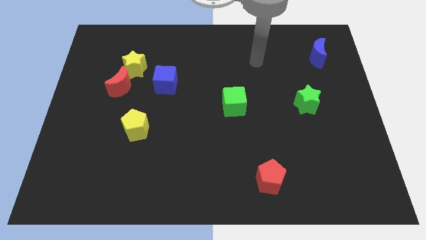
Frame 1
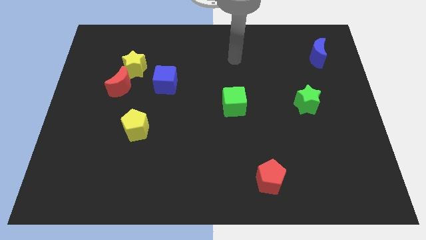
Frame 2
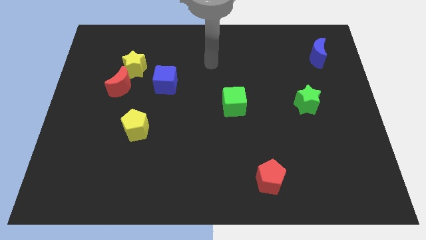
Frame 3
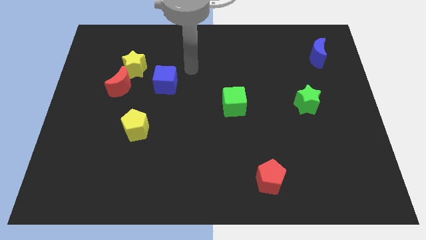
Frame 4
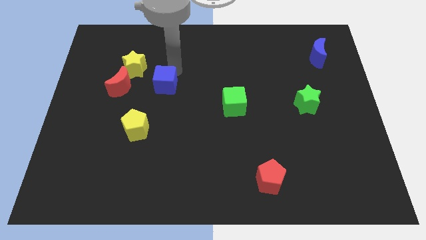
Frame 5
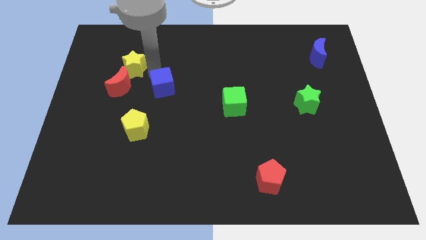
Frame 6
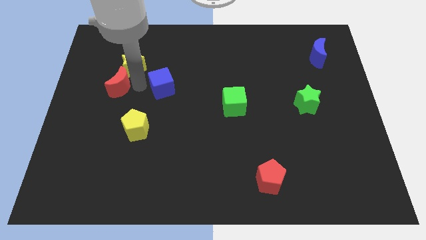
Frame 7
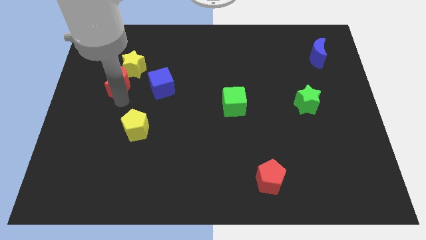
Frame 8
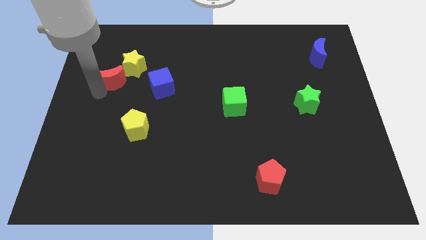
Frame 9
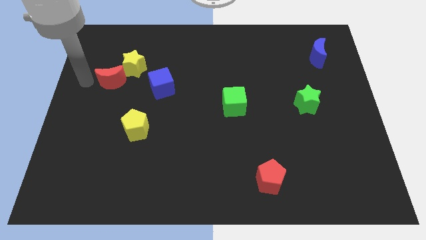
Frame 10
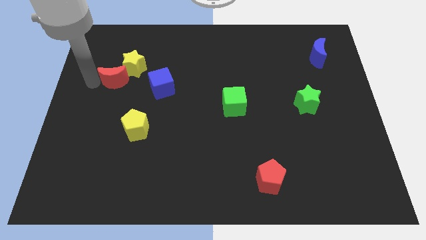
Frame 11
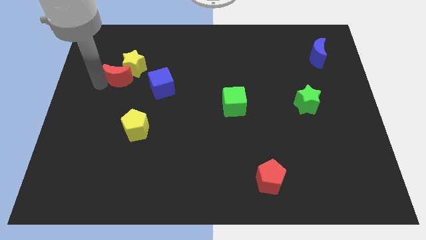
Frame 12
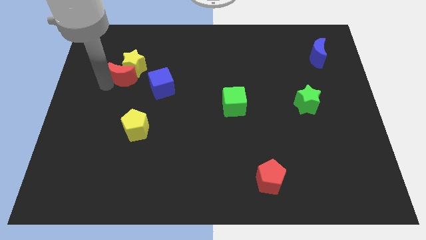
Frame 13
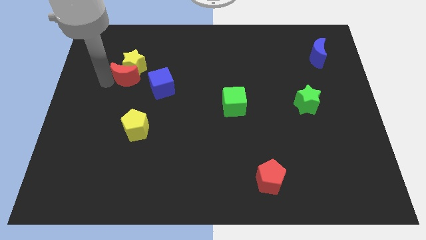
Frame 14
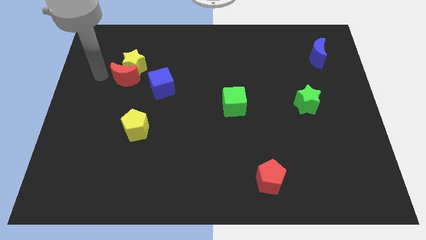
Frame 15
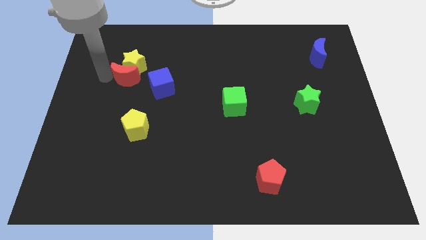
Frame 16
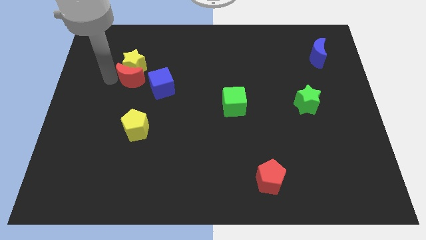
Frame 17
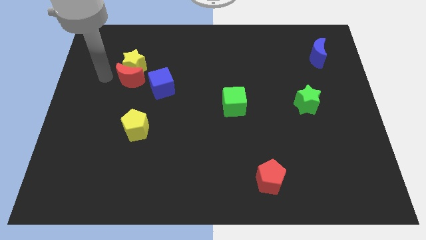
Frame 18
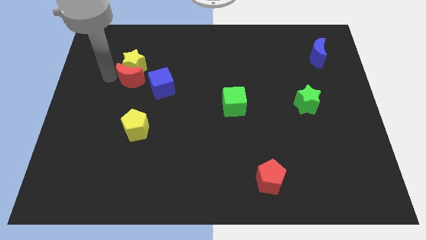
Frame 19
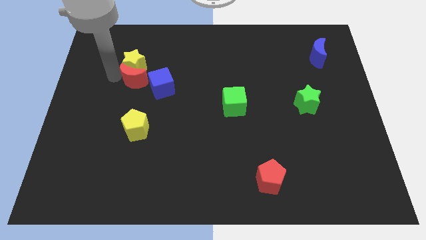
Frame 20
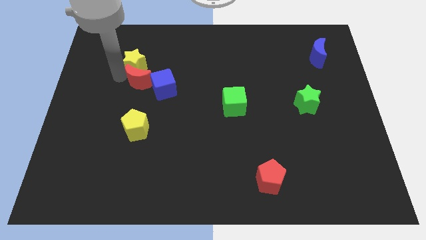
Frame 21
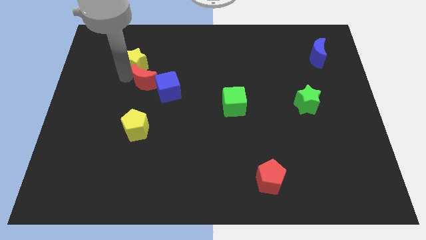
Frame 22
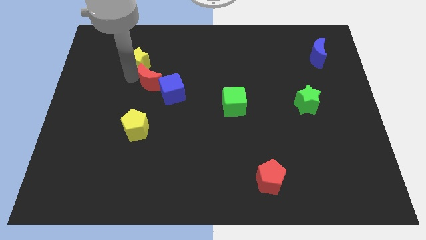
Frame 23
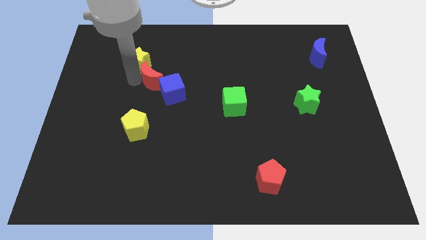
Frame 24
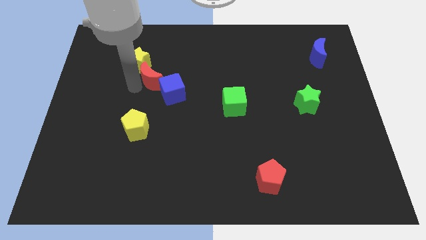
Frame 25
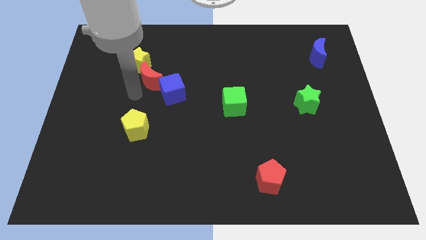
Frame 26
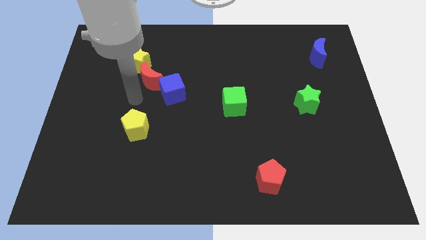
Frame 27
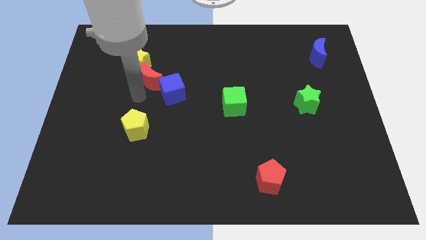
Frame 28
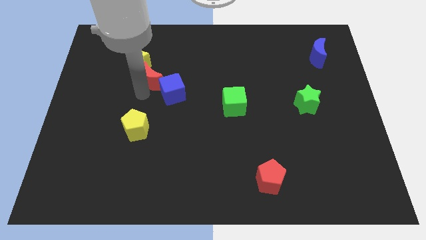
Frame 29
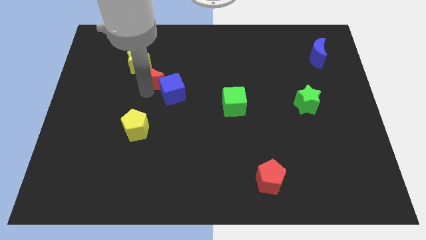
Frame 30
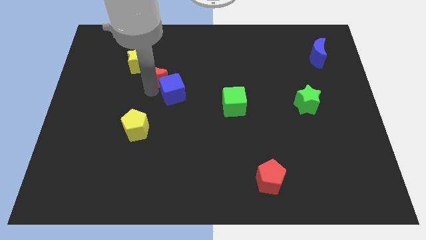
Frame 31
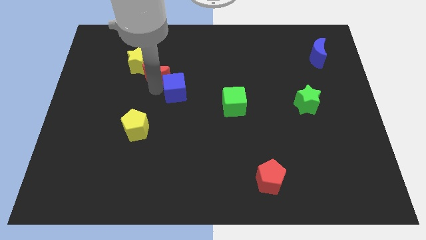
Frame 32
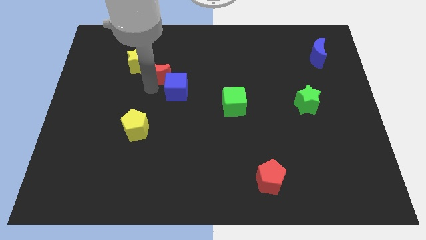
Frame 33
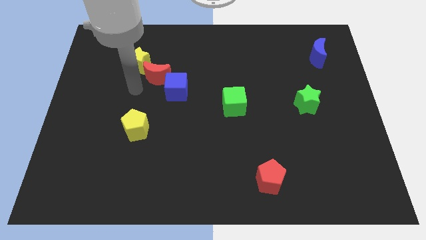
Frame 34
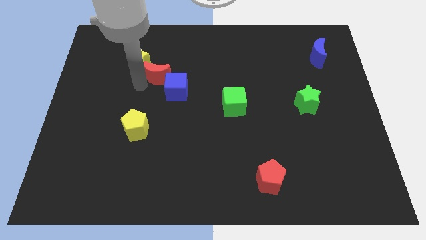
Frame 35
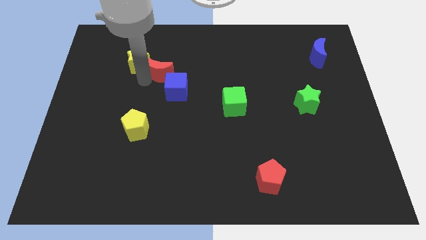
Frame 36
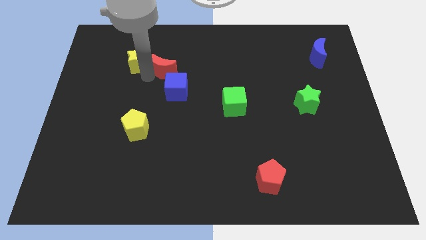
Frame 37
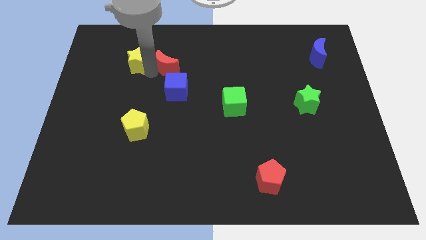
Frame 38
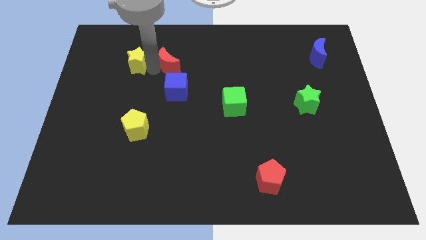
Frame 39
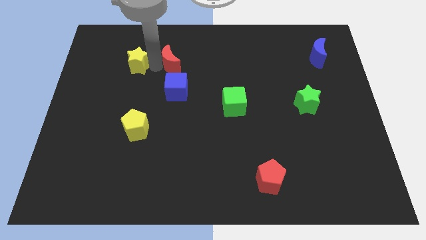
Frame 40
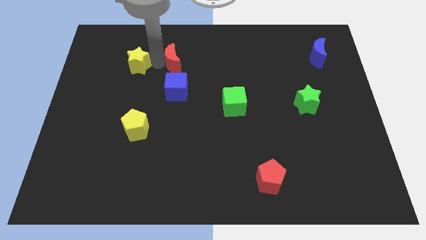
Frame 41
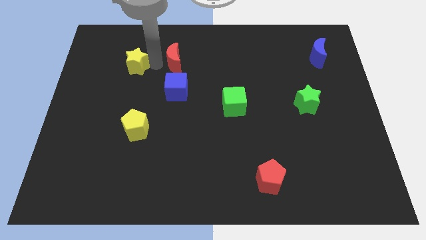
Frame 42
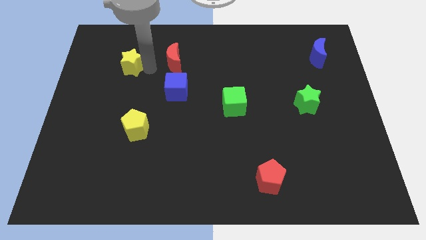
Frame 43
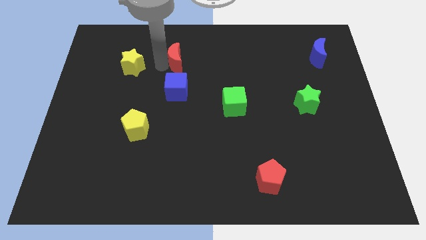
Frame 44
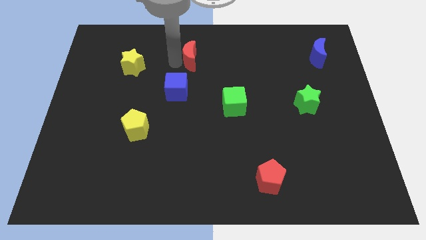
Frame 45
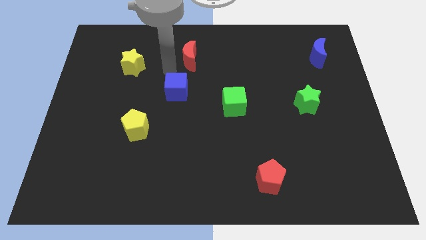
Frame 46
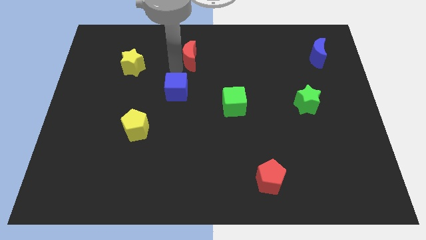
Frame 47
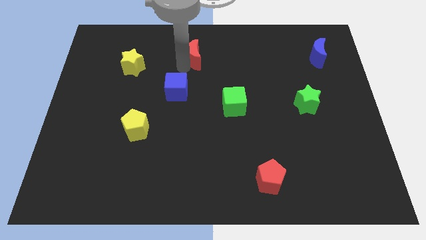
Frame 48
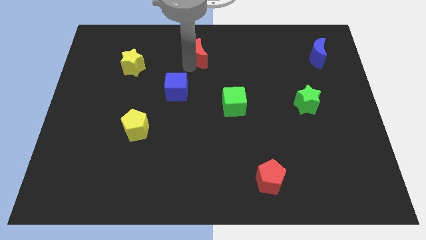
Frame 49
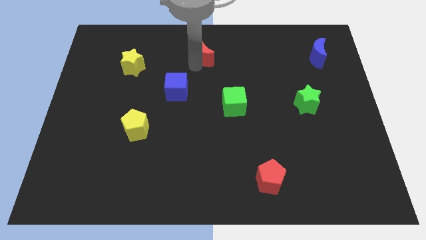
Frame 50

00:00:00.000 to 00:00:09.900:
push the red moon to the top

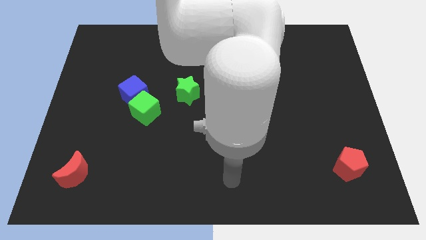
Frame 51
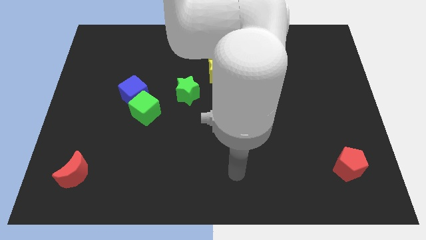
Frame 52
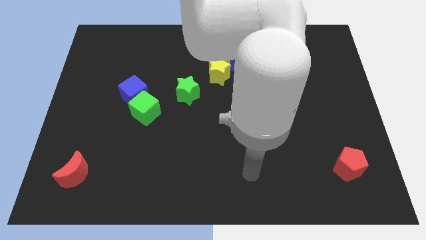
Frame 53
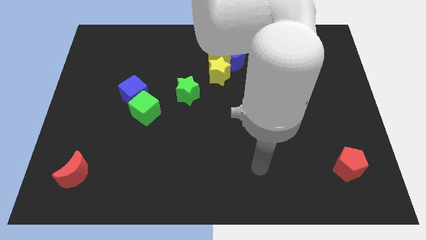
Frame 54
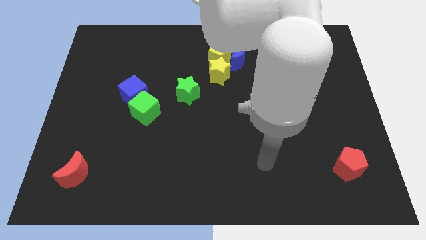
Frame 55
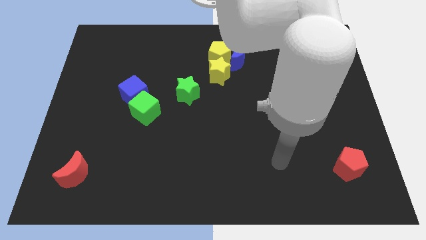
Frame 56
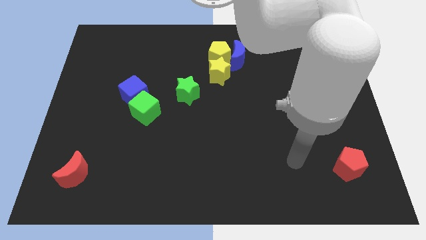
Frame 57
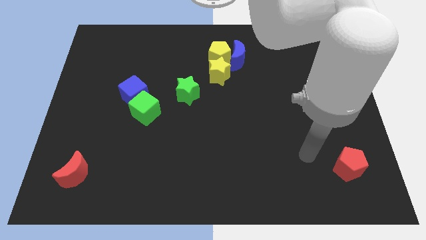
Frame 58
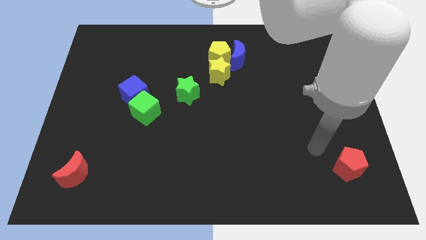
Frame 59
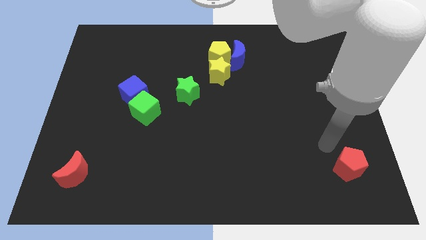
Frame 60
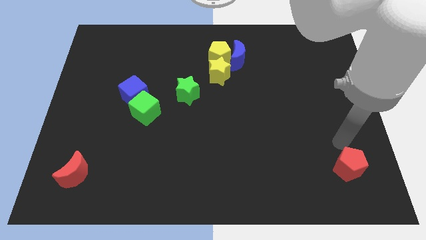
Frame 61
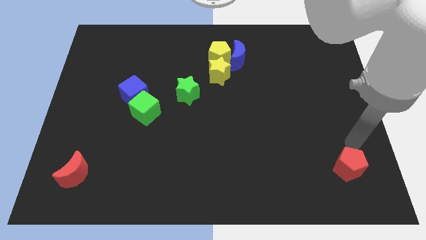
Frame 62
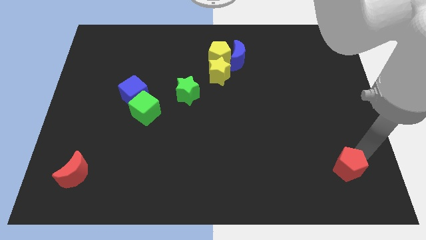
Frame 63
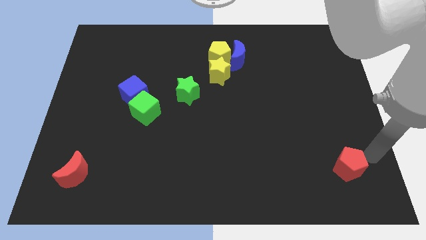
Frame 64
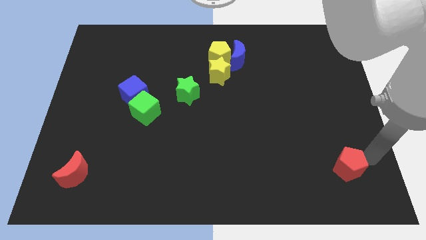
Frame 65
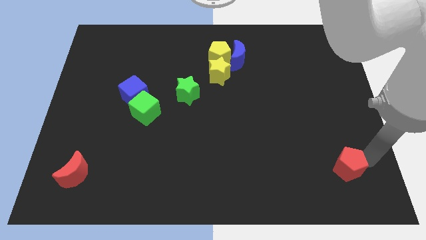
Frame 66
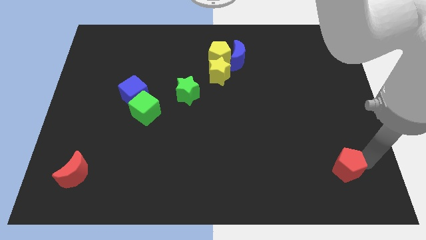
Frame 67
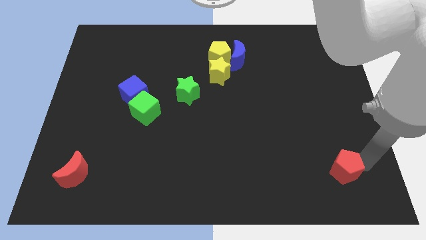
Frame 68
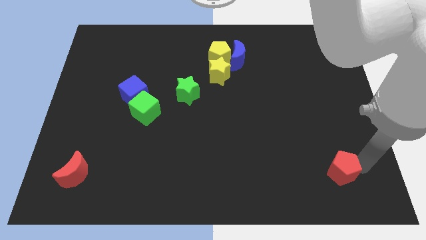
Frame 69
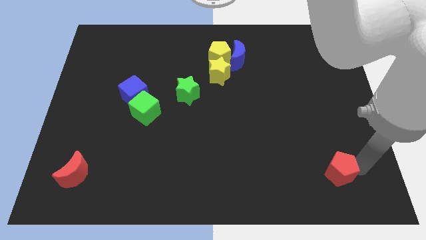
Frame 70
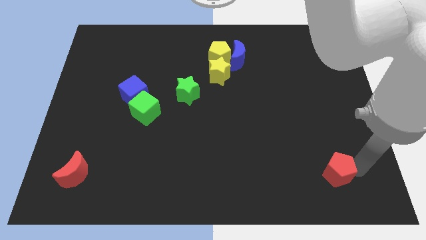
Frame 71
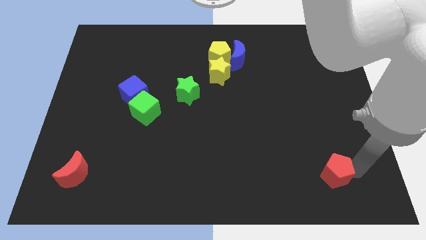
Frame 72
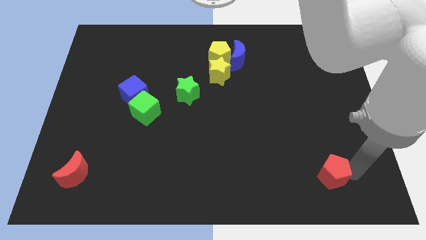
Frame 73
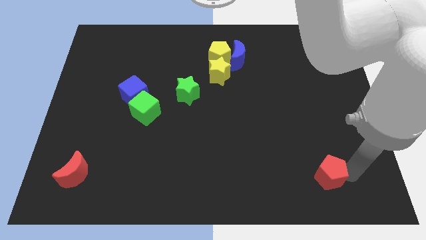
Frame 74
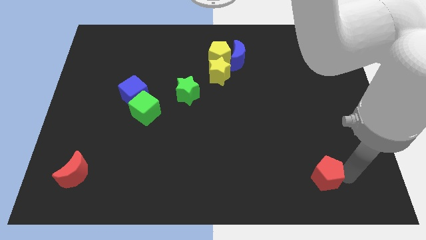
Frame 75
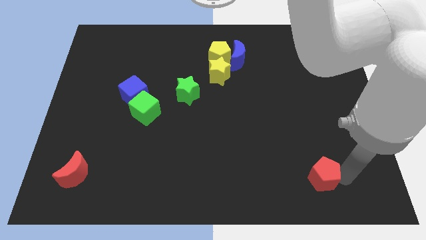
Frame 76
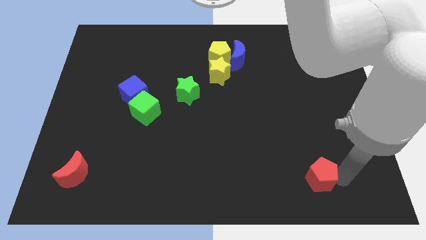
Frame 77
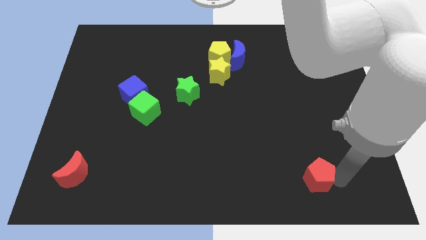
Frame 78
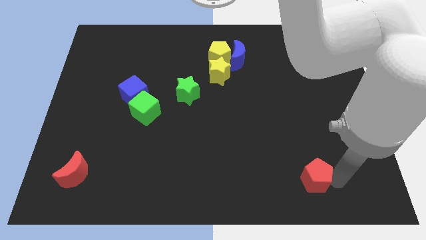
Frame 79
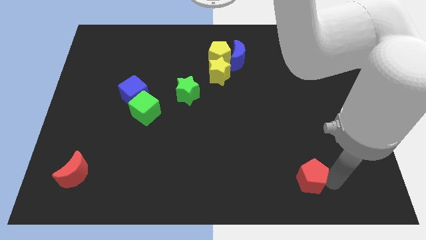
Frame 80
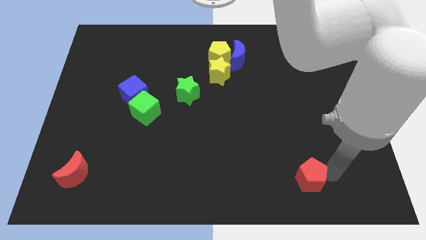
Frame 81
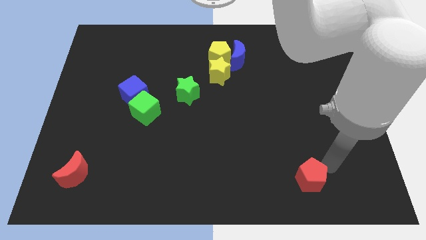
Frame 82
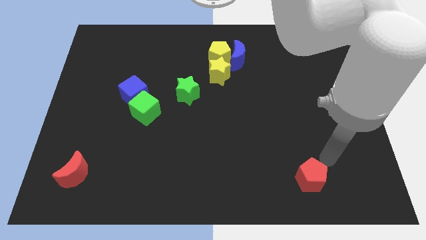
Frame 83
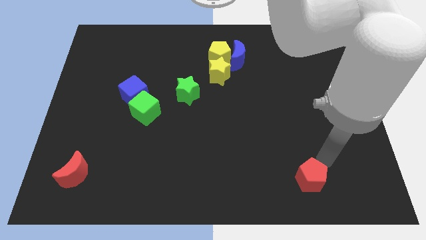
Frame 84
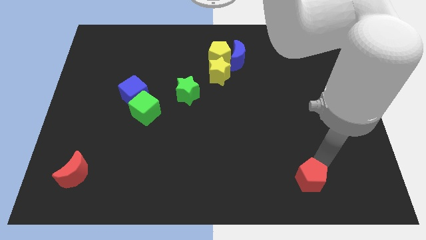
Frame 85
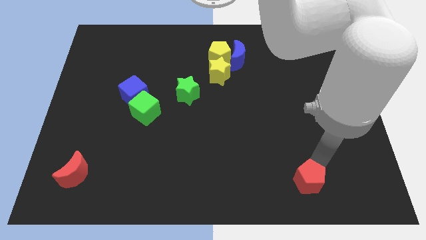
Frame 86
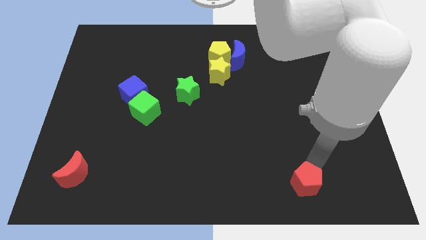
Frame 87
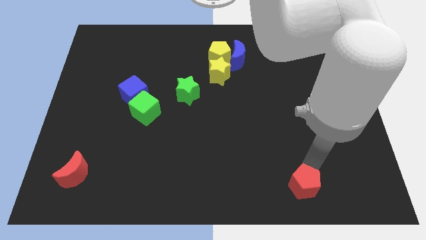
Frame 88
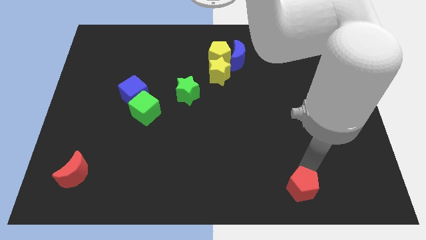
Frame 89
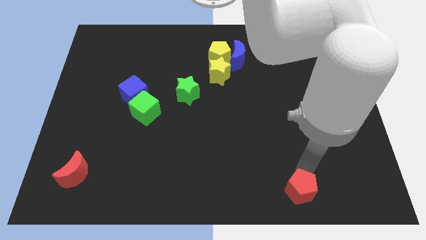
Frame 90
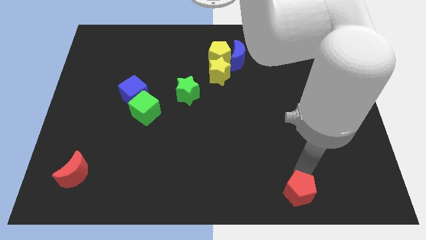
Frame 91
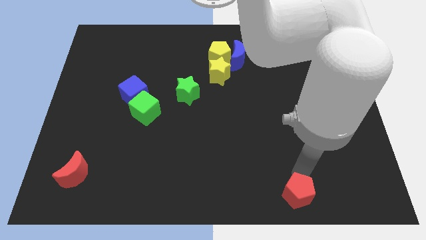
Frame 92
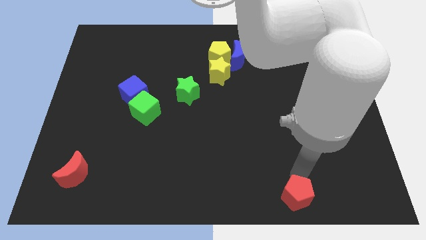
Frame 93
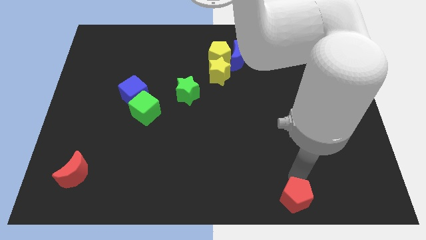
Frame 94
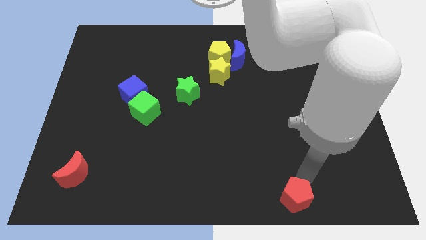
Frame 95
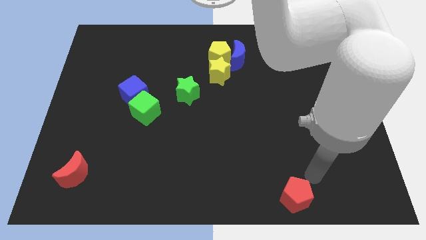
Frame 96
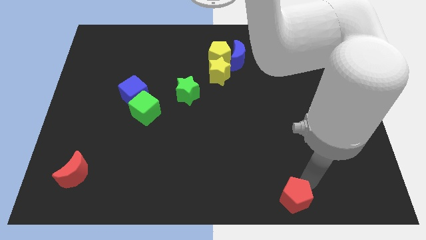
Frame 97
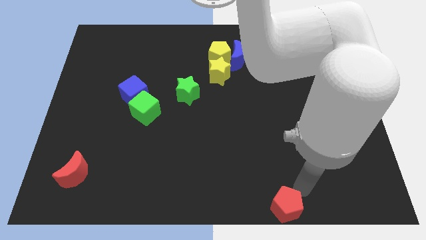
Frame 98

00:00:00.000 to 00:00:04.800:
put the red pentagon to the bottom side
